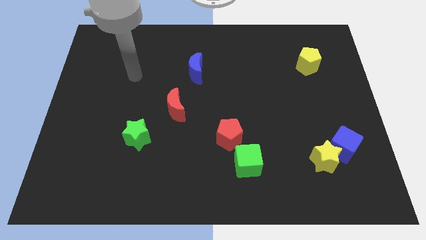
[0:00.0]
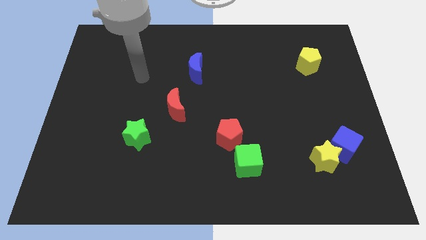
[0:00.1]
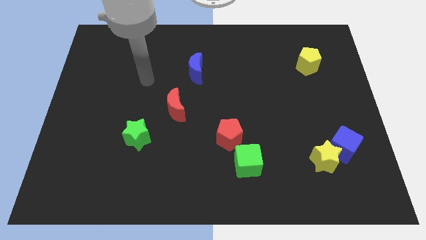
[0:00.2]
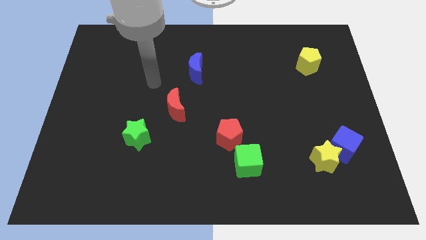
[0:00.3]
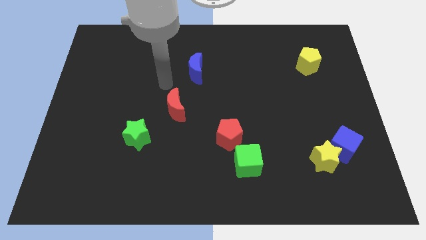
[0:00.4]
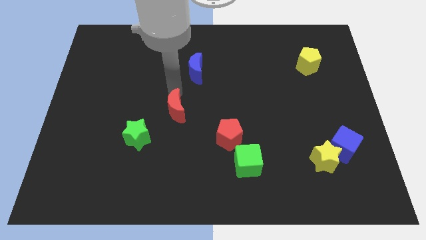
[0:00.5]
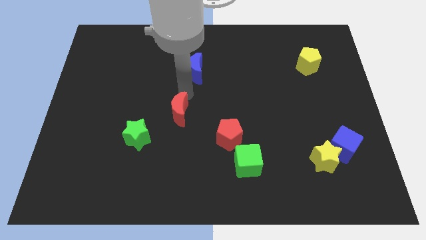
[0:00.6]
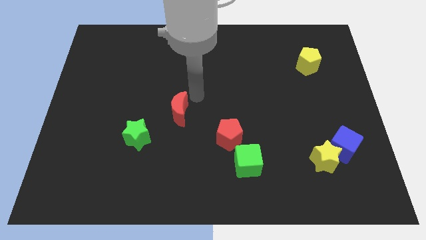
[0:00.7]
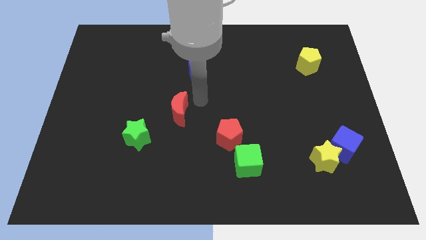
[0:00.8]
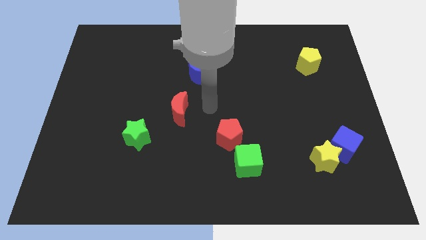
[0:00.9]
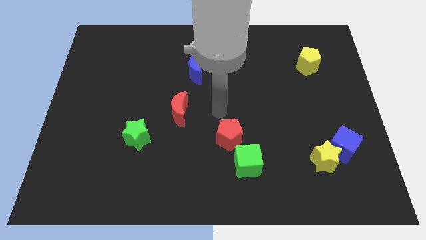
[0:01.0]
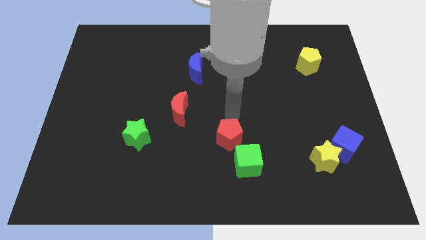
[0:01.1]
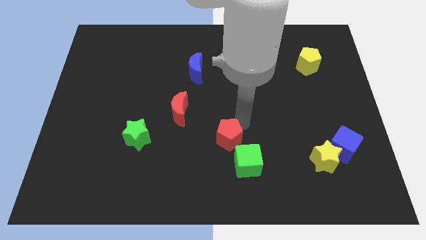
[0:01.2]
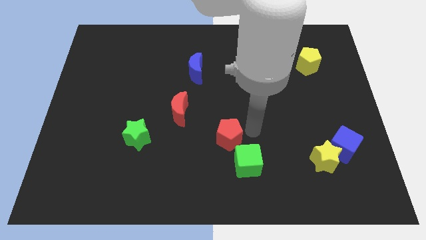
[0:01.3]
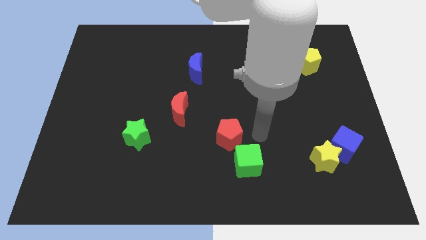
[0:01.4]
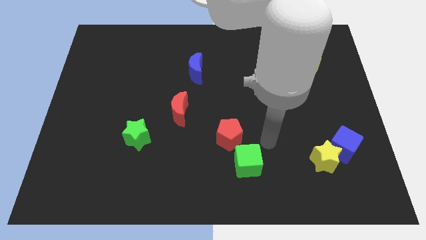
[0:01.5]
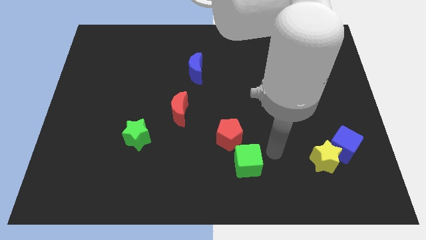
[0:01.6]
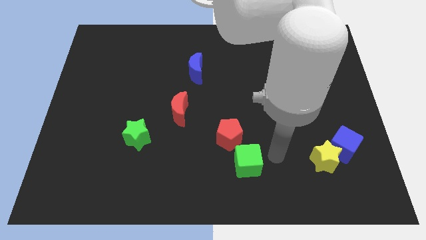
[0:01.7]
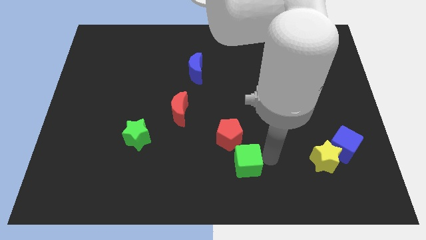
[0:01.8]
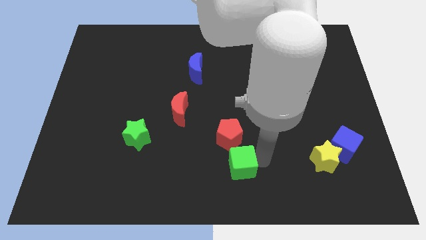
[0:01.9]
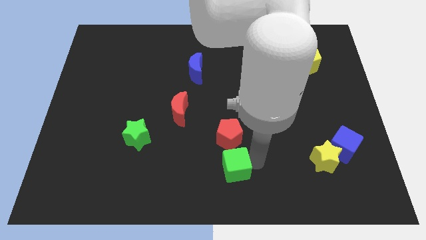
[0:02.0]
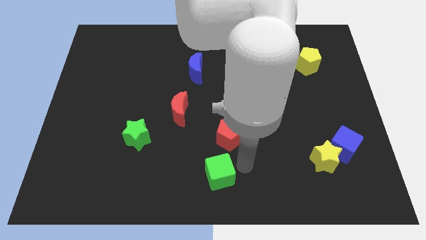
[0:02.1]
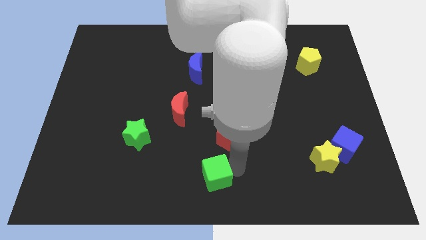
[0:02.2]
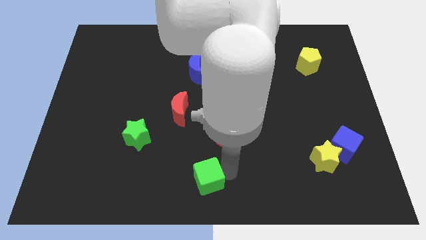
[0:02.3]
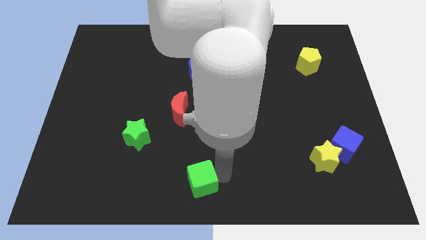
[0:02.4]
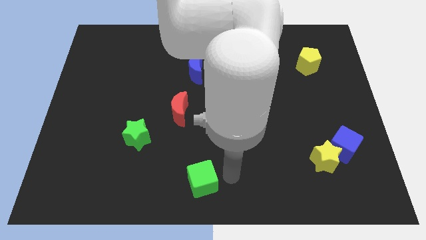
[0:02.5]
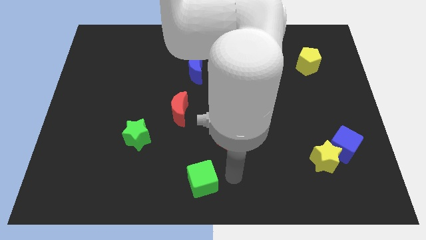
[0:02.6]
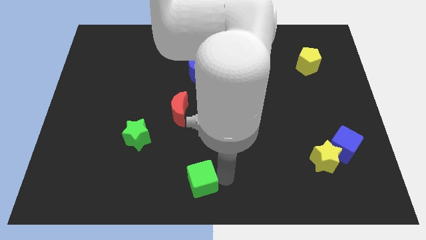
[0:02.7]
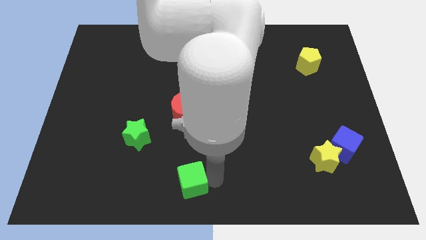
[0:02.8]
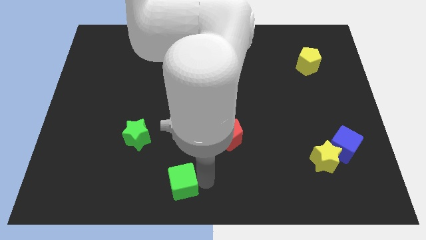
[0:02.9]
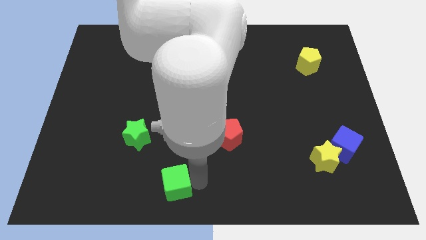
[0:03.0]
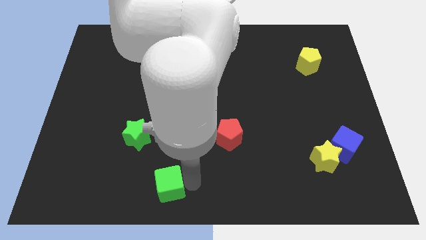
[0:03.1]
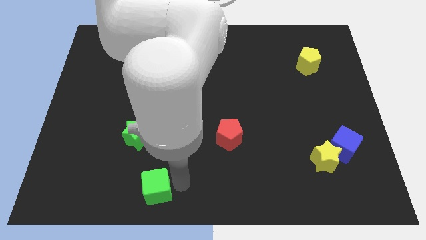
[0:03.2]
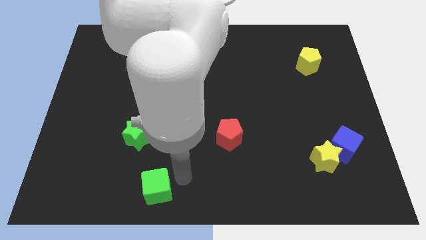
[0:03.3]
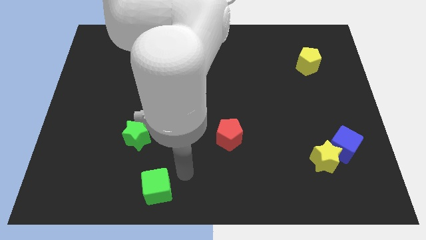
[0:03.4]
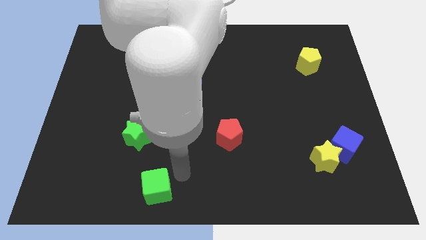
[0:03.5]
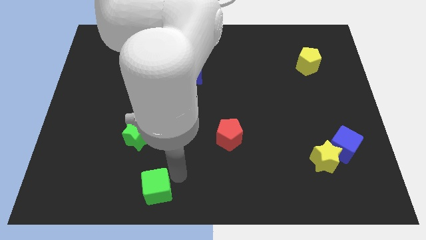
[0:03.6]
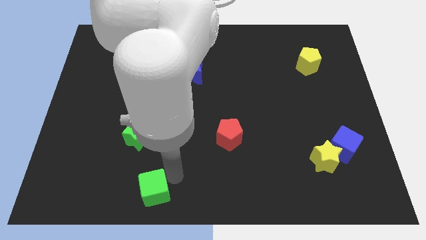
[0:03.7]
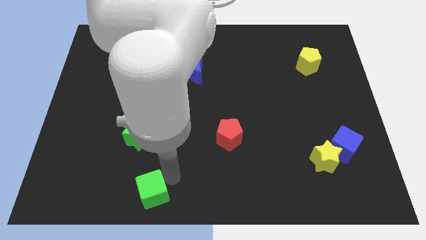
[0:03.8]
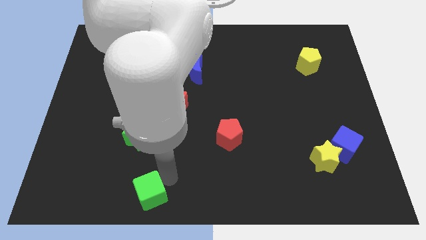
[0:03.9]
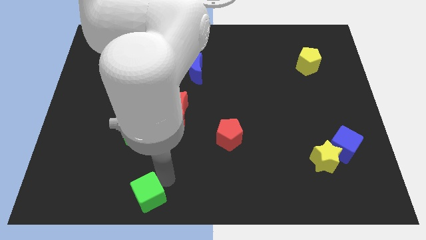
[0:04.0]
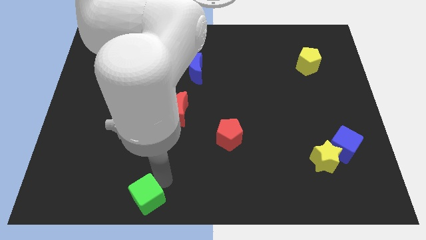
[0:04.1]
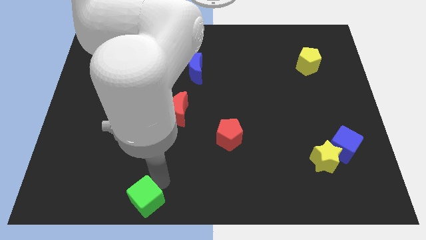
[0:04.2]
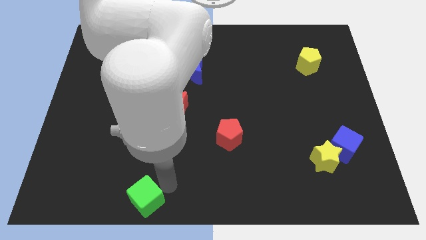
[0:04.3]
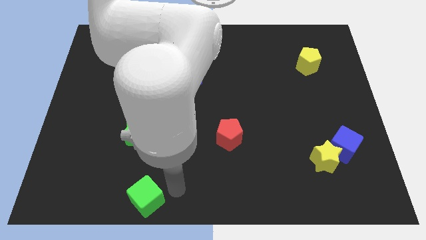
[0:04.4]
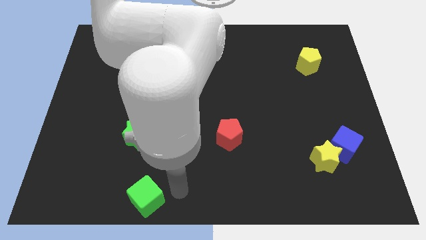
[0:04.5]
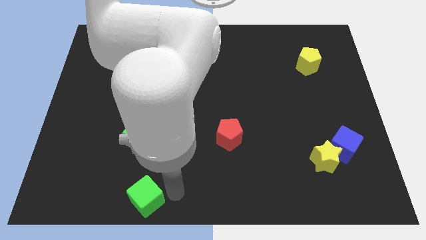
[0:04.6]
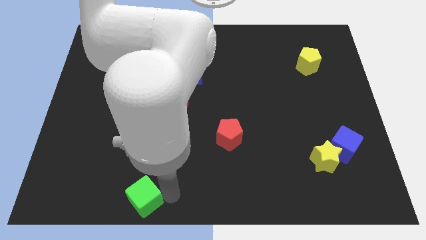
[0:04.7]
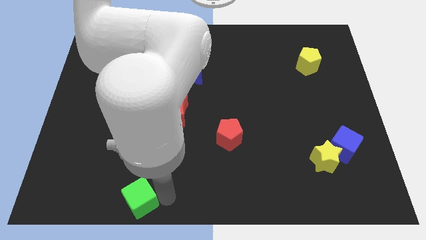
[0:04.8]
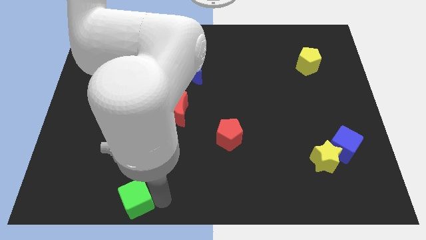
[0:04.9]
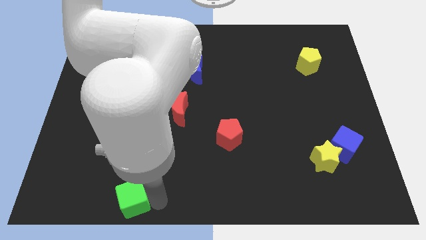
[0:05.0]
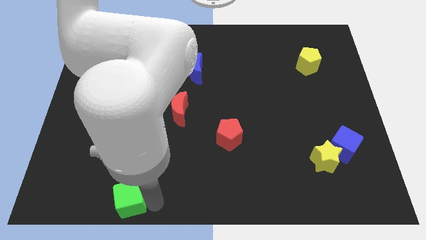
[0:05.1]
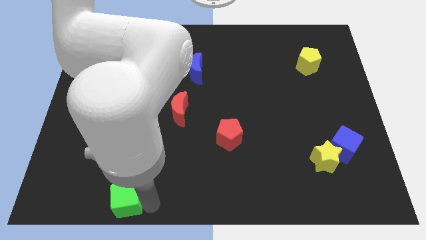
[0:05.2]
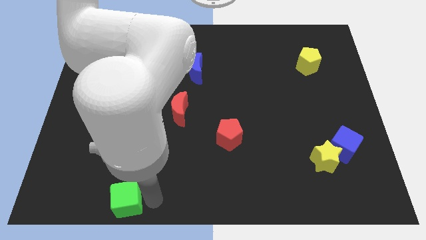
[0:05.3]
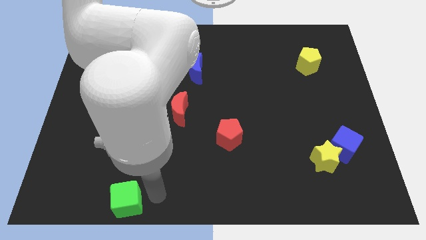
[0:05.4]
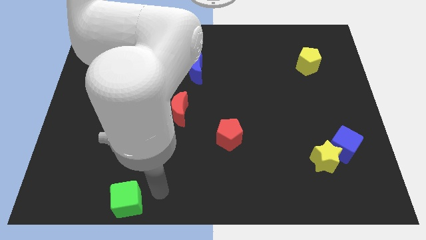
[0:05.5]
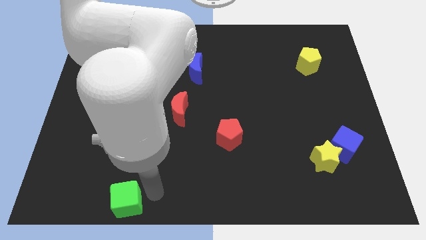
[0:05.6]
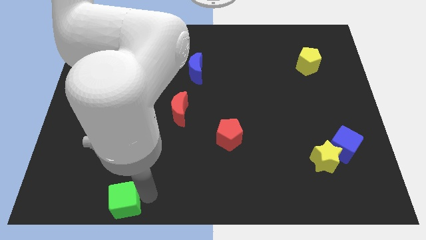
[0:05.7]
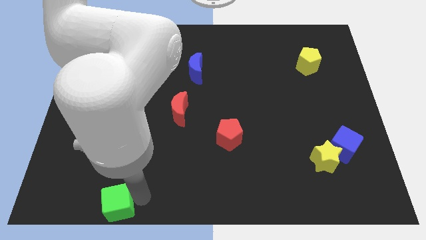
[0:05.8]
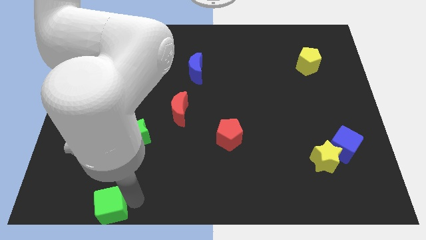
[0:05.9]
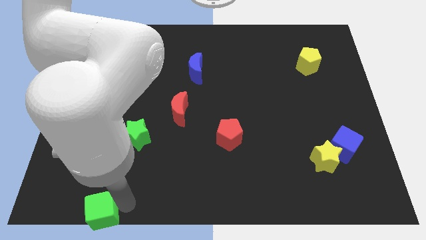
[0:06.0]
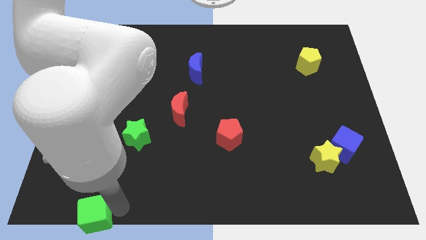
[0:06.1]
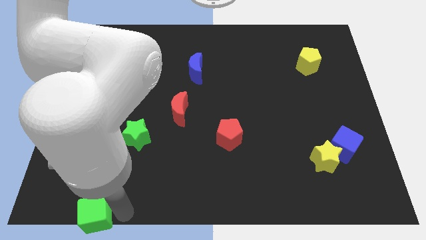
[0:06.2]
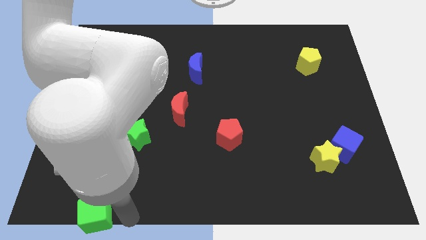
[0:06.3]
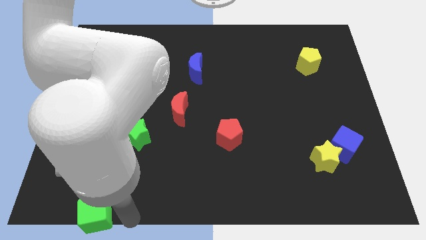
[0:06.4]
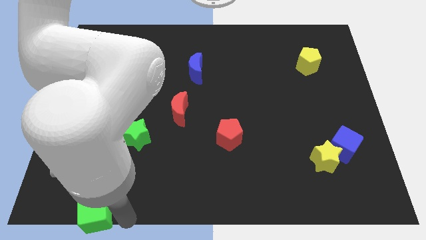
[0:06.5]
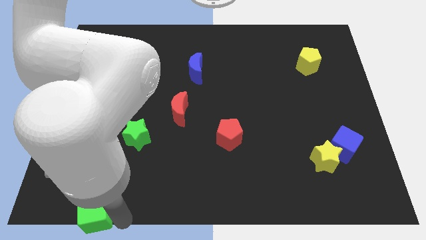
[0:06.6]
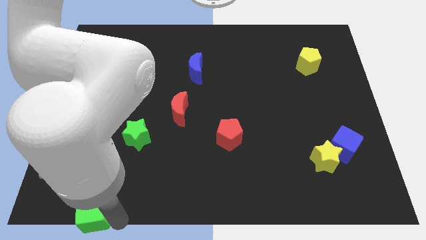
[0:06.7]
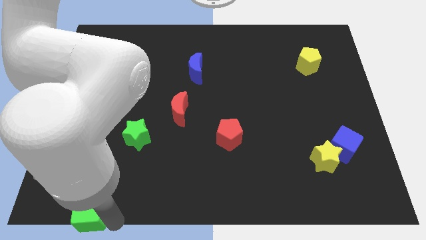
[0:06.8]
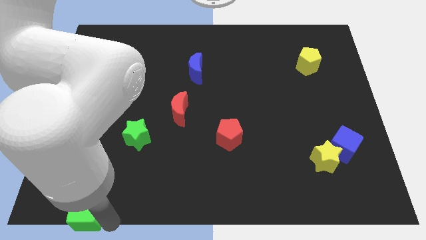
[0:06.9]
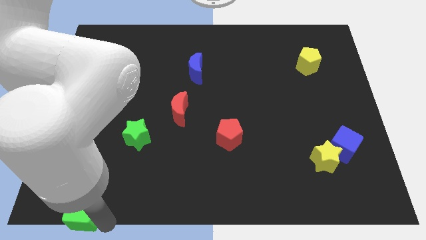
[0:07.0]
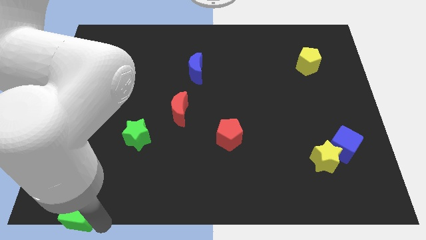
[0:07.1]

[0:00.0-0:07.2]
push the green cube to the bottom left of the board
